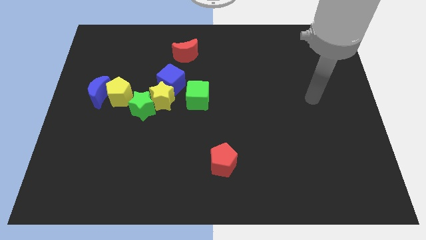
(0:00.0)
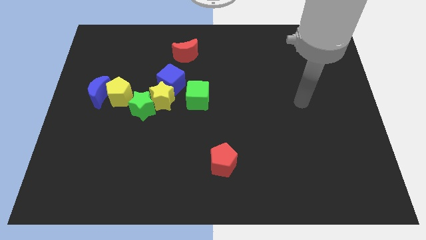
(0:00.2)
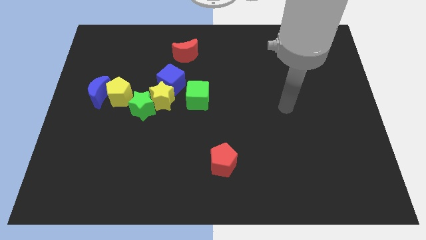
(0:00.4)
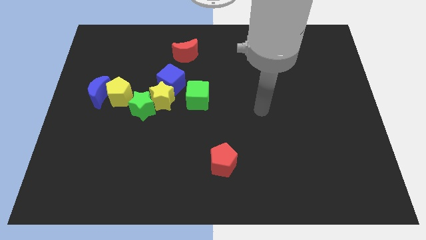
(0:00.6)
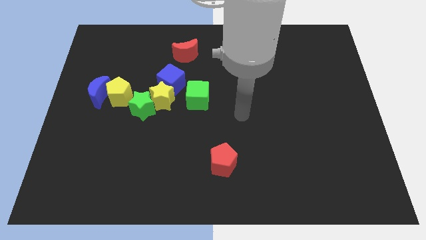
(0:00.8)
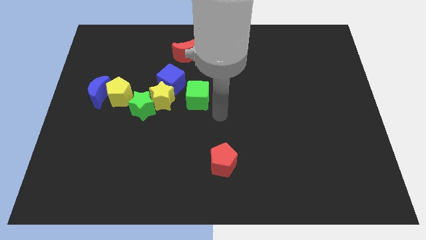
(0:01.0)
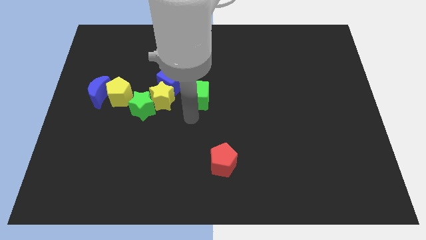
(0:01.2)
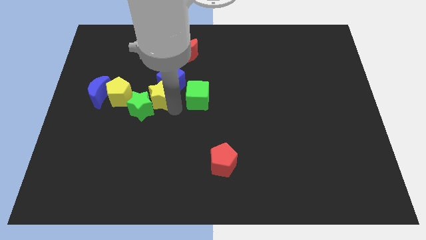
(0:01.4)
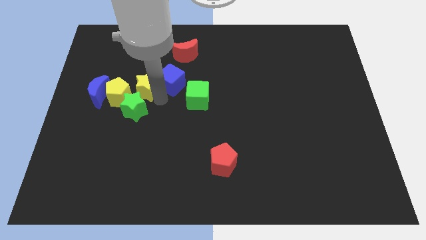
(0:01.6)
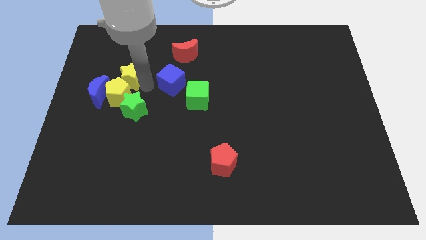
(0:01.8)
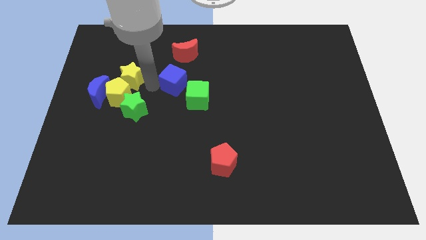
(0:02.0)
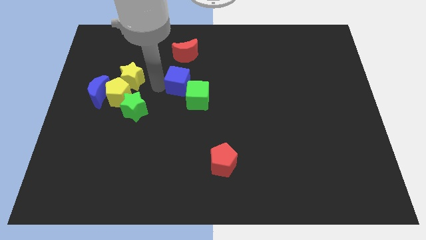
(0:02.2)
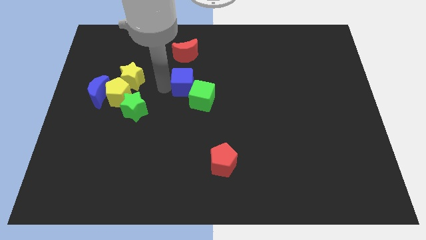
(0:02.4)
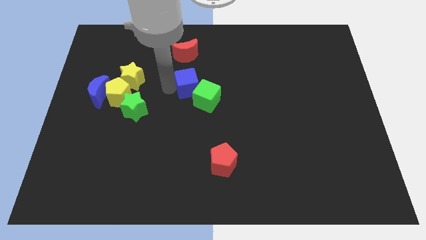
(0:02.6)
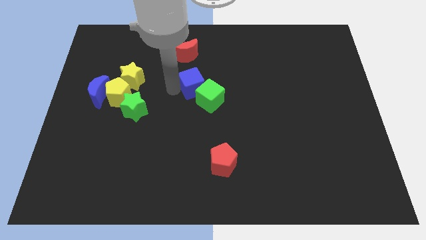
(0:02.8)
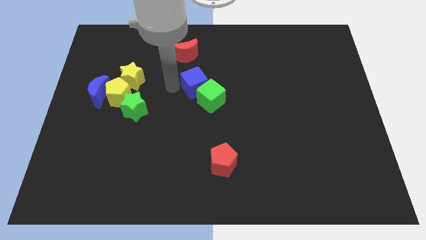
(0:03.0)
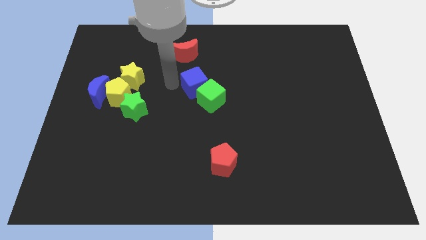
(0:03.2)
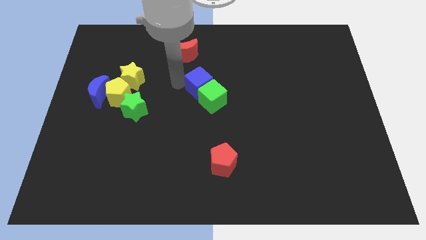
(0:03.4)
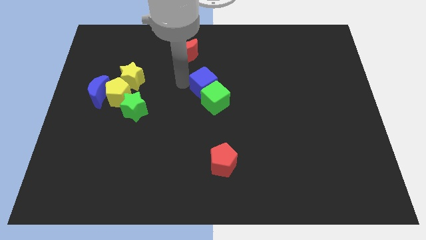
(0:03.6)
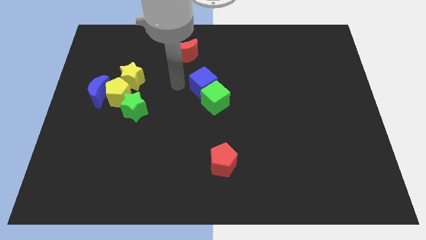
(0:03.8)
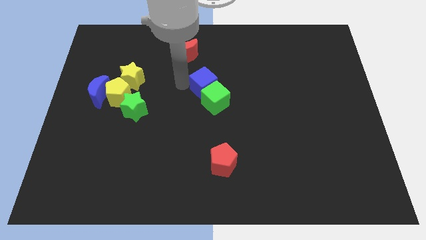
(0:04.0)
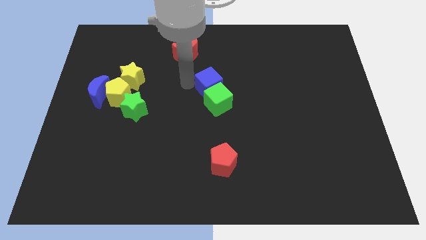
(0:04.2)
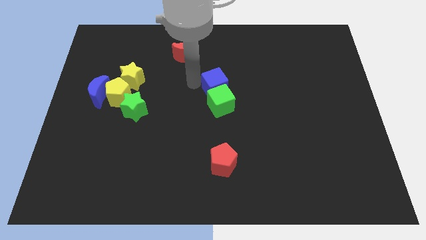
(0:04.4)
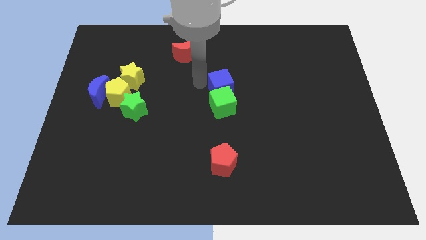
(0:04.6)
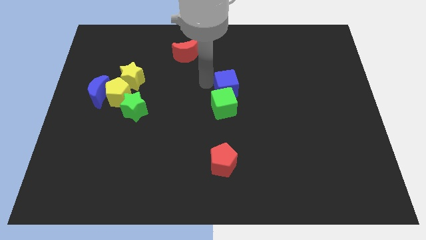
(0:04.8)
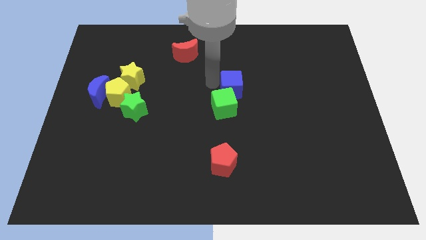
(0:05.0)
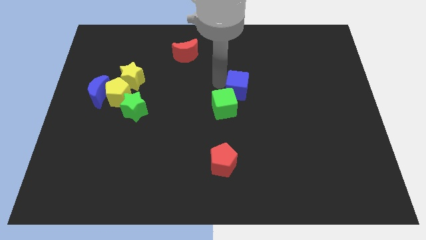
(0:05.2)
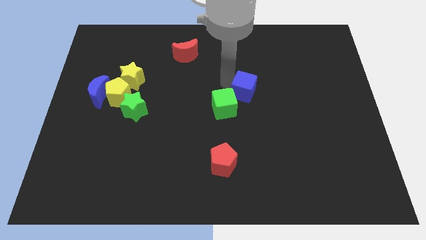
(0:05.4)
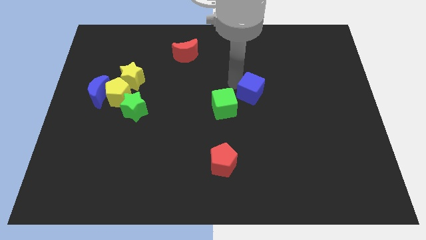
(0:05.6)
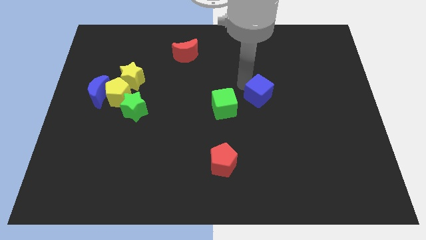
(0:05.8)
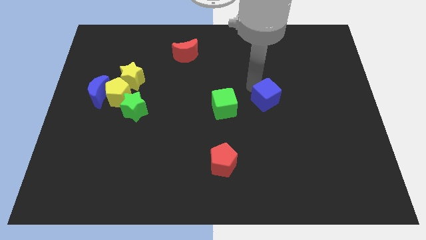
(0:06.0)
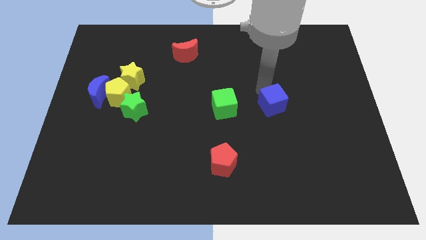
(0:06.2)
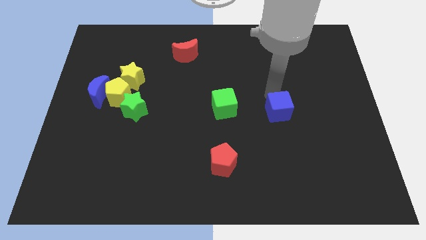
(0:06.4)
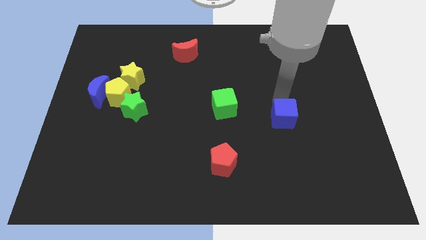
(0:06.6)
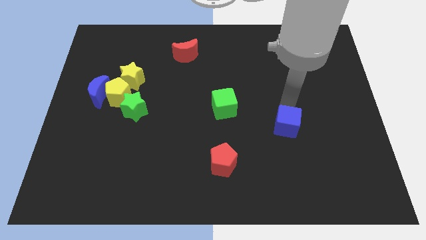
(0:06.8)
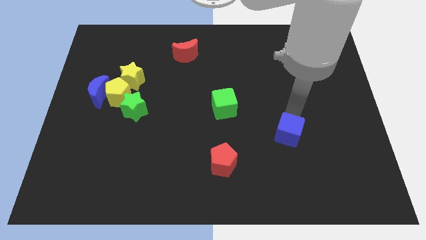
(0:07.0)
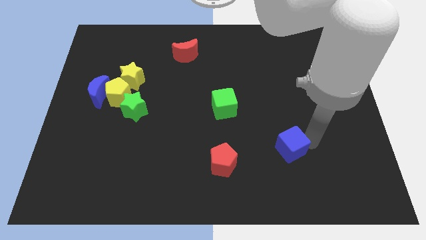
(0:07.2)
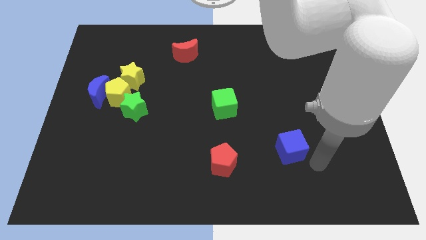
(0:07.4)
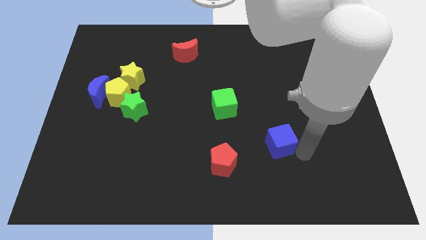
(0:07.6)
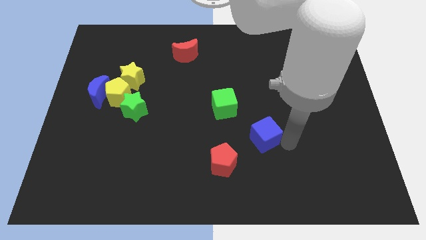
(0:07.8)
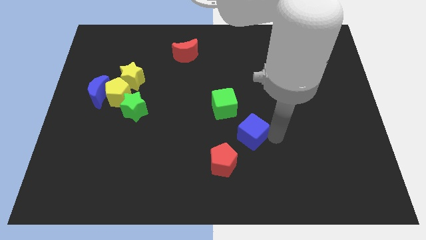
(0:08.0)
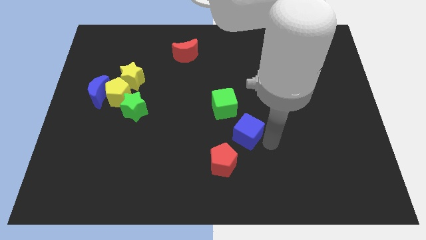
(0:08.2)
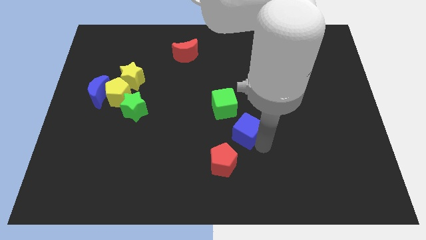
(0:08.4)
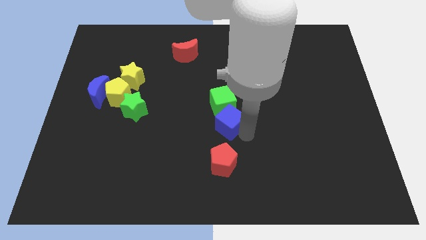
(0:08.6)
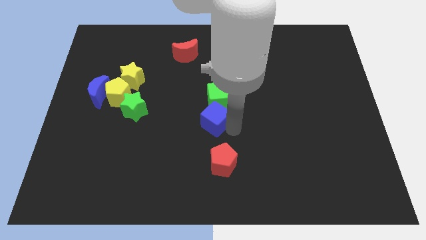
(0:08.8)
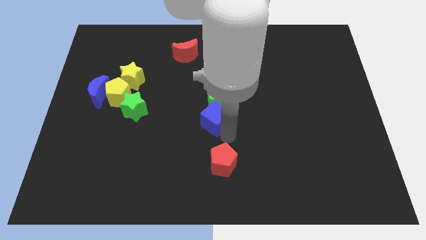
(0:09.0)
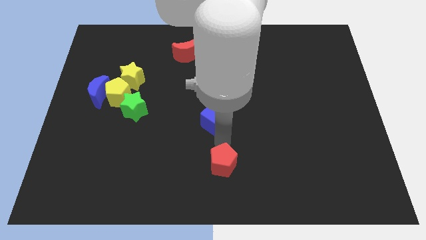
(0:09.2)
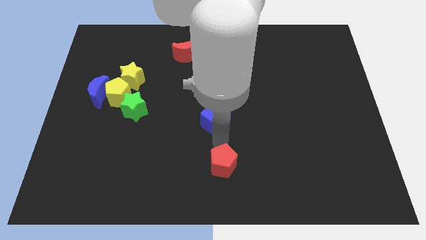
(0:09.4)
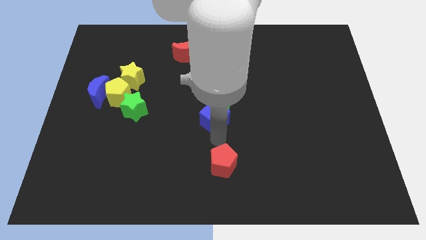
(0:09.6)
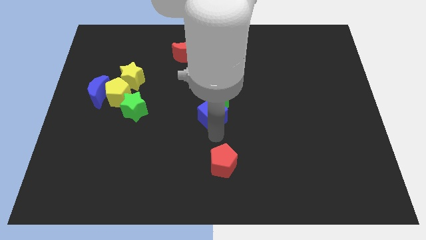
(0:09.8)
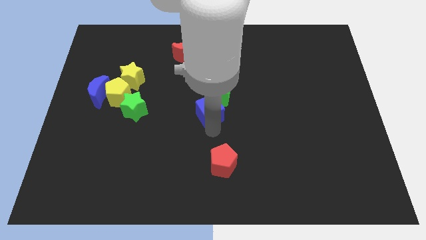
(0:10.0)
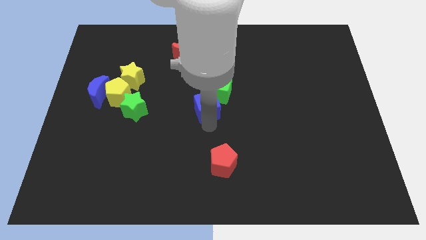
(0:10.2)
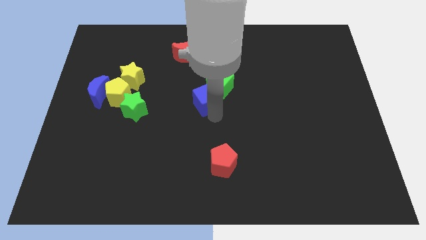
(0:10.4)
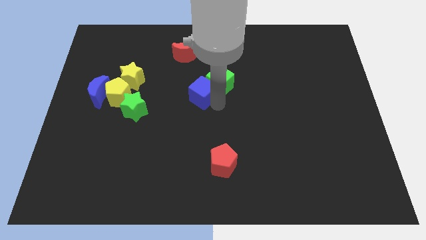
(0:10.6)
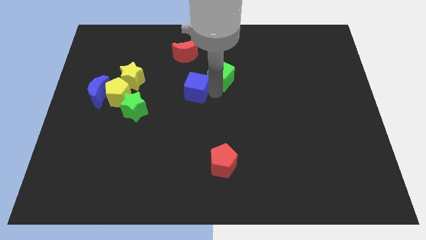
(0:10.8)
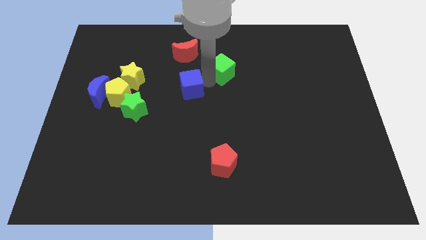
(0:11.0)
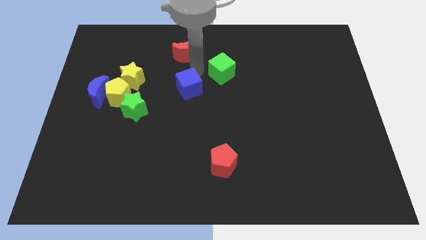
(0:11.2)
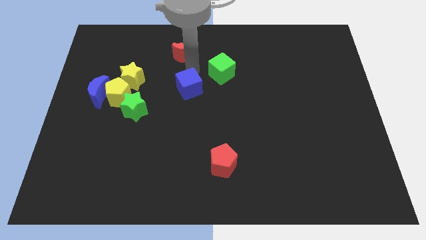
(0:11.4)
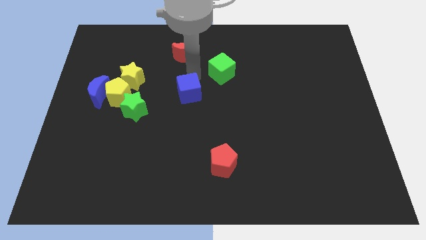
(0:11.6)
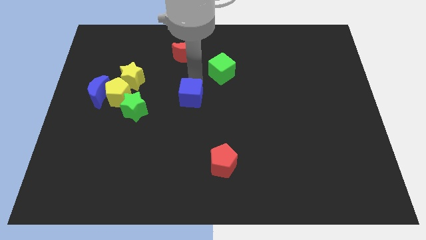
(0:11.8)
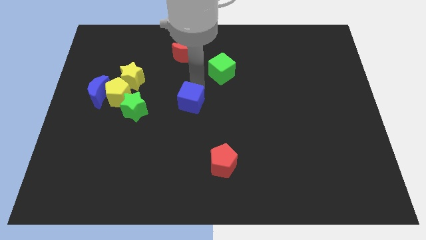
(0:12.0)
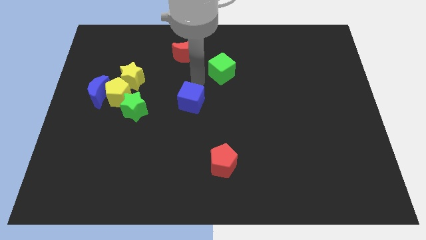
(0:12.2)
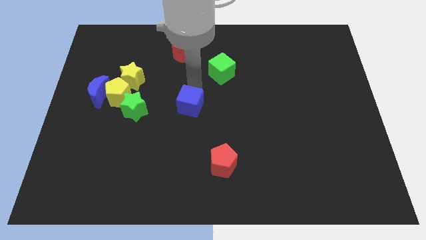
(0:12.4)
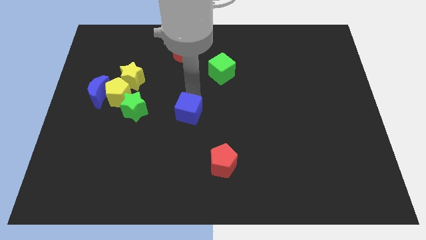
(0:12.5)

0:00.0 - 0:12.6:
slightly slide the blue cube down

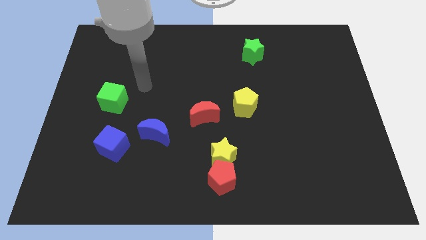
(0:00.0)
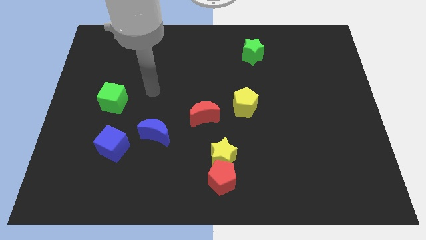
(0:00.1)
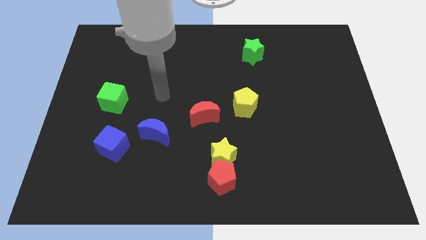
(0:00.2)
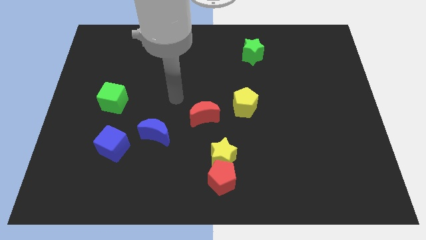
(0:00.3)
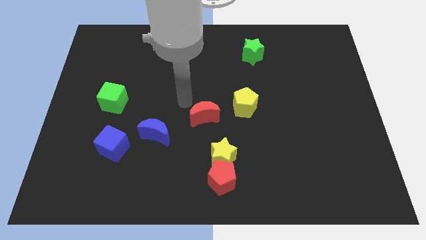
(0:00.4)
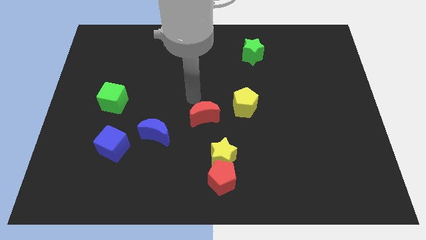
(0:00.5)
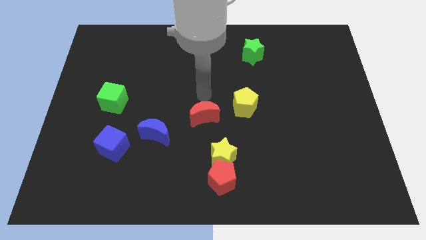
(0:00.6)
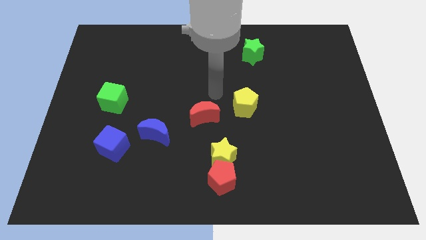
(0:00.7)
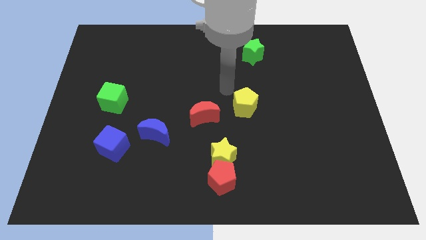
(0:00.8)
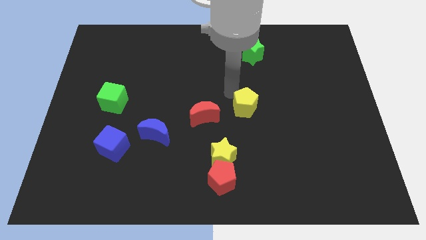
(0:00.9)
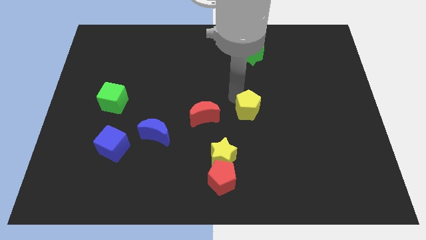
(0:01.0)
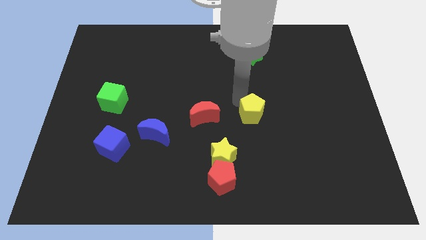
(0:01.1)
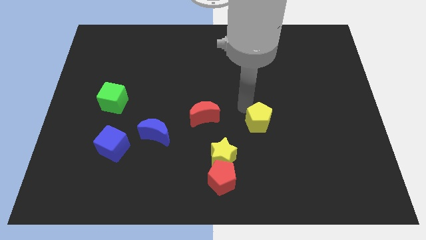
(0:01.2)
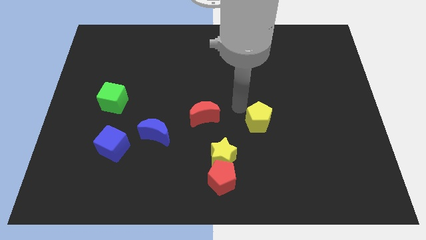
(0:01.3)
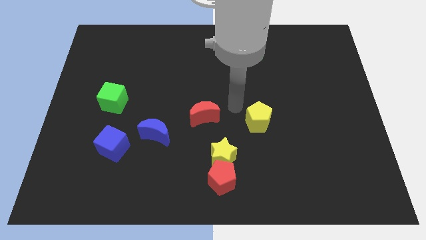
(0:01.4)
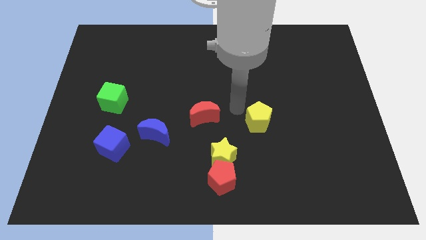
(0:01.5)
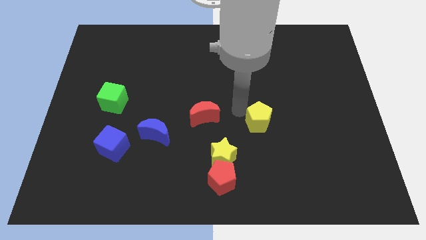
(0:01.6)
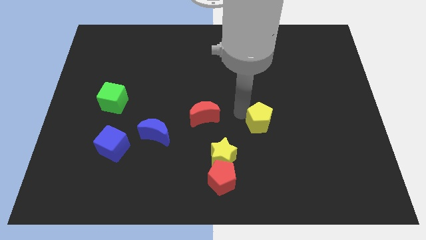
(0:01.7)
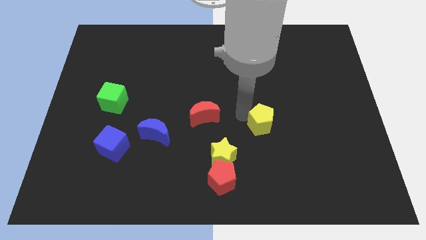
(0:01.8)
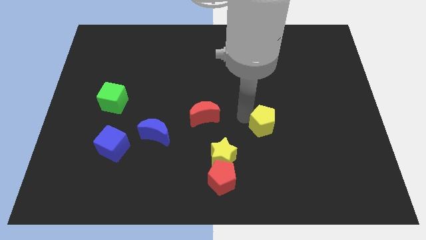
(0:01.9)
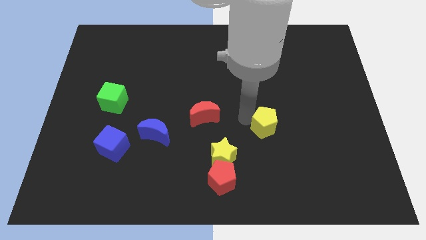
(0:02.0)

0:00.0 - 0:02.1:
move the yellow pentagon slightly downwards and to the right
